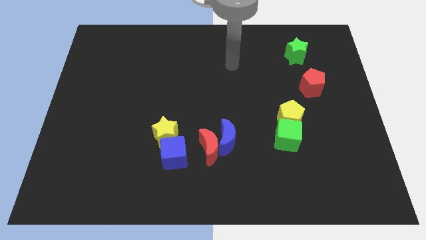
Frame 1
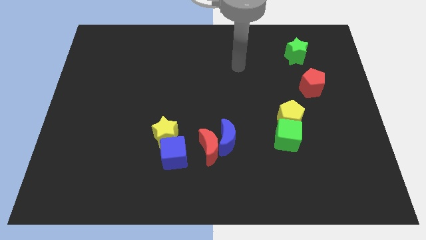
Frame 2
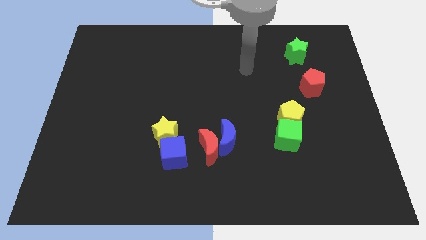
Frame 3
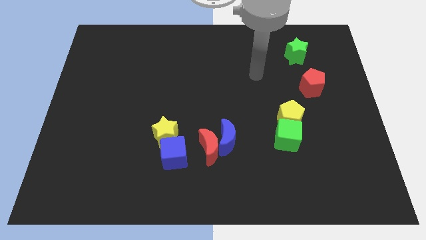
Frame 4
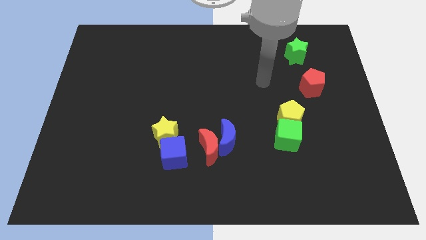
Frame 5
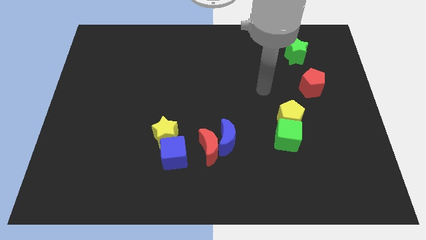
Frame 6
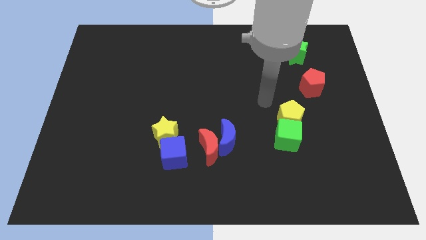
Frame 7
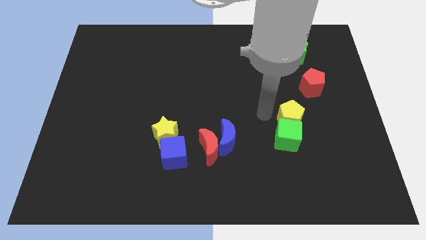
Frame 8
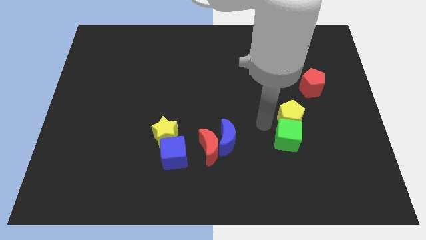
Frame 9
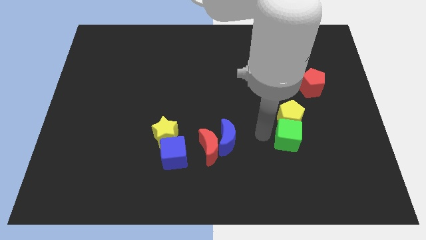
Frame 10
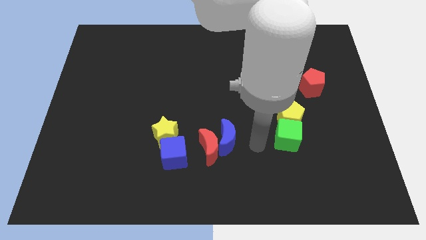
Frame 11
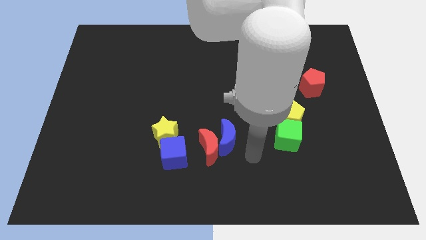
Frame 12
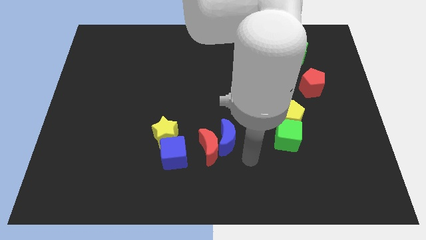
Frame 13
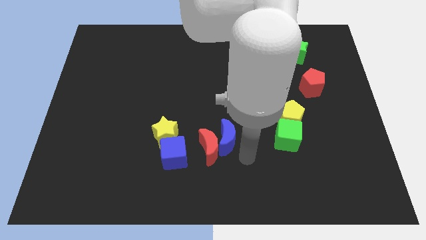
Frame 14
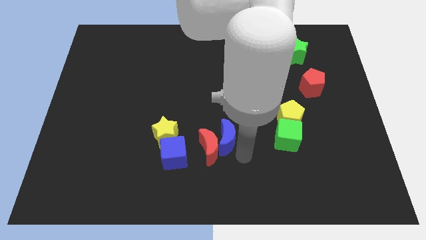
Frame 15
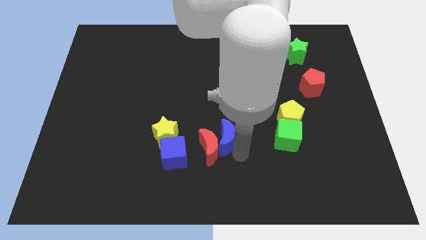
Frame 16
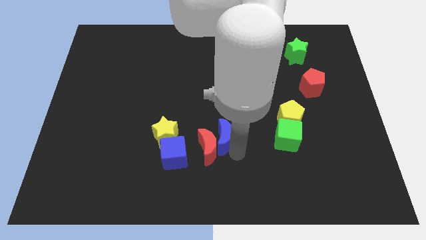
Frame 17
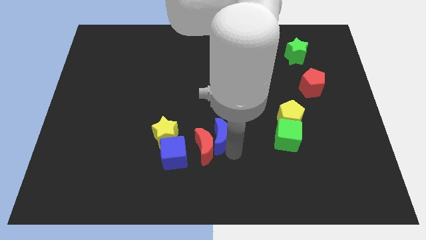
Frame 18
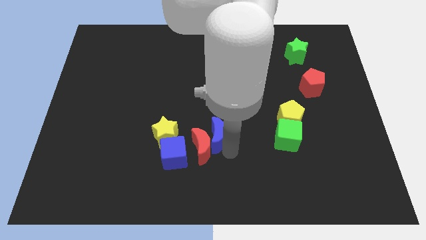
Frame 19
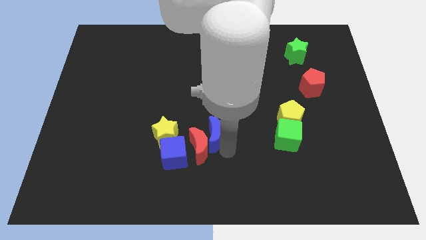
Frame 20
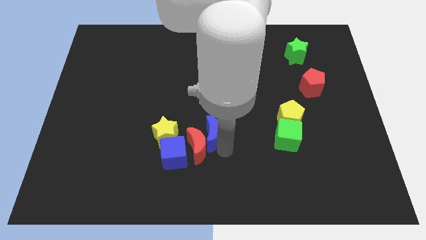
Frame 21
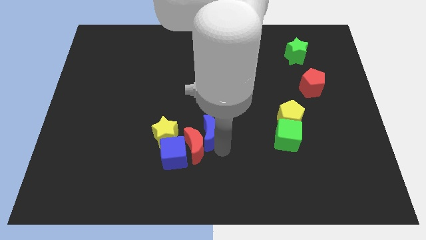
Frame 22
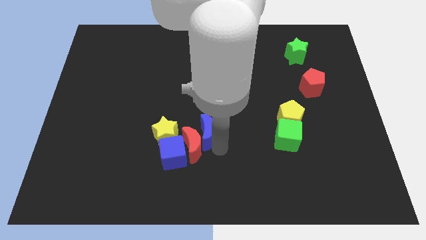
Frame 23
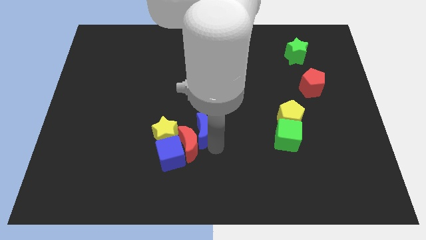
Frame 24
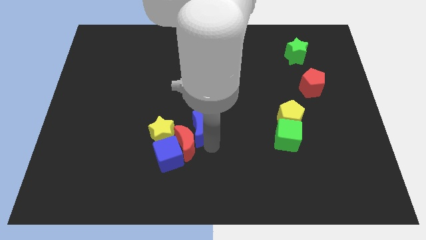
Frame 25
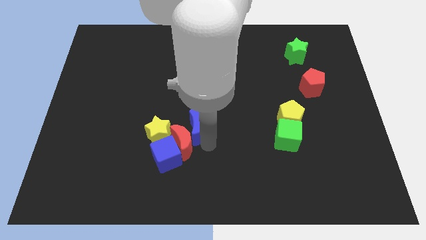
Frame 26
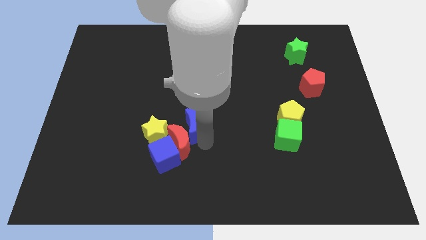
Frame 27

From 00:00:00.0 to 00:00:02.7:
move the blue moon a little up and left diagonally

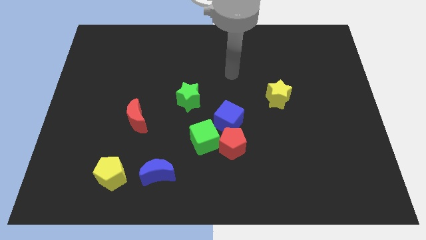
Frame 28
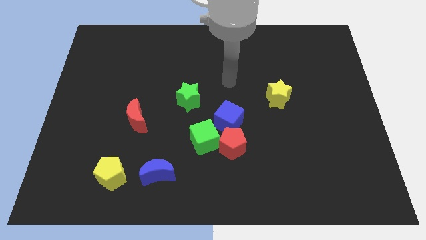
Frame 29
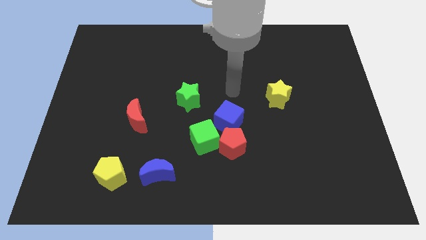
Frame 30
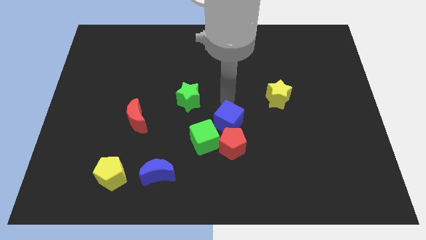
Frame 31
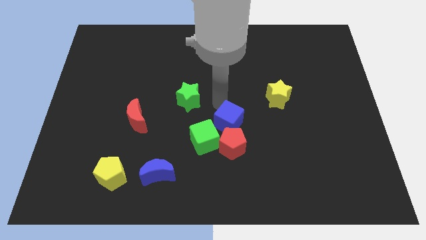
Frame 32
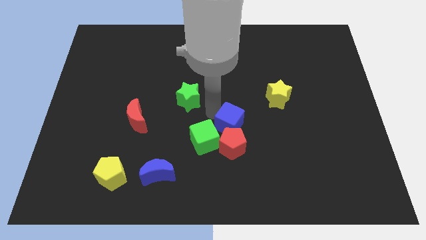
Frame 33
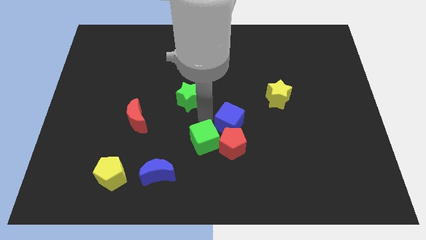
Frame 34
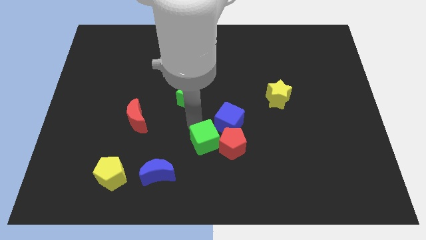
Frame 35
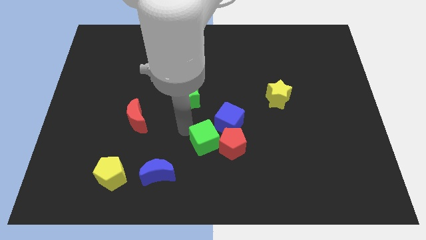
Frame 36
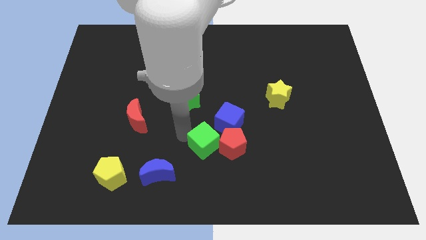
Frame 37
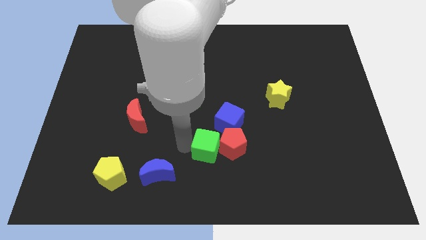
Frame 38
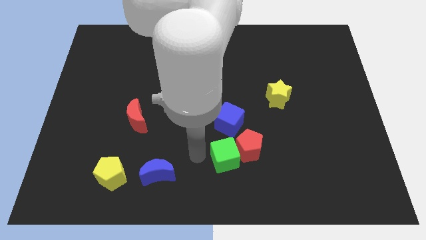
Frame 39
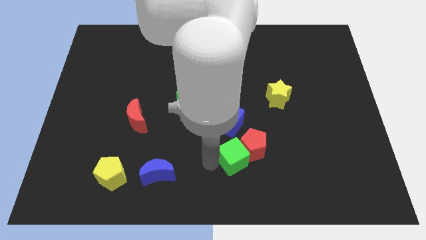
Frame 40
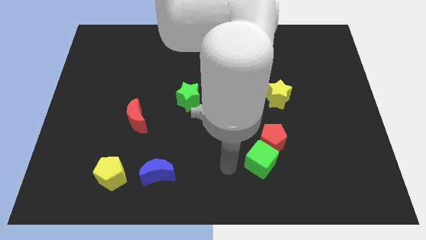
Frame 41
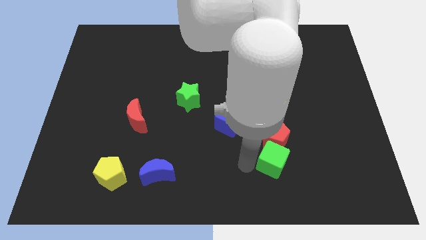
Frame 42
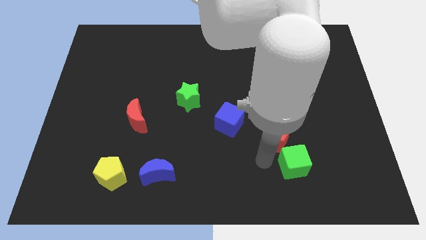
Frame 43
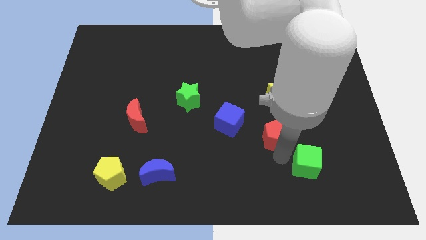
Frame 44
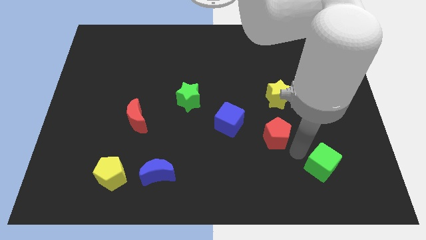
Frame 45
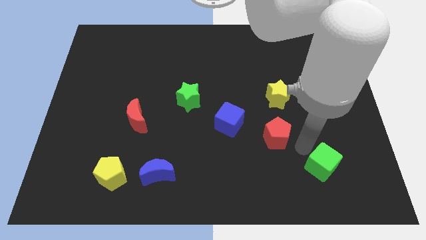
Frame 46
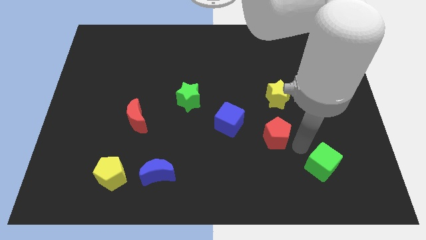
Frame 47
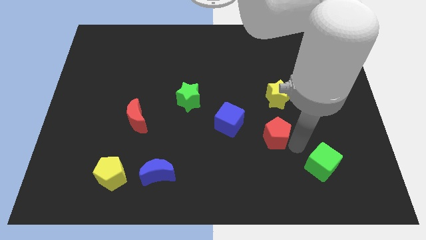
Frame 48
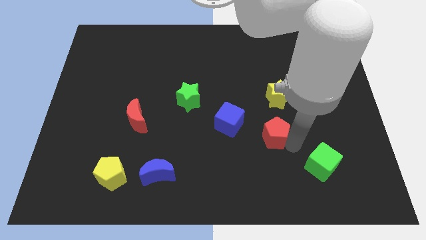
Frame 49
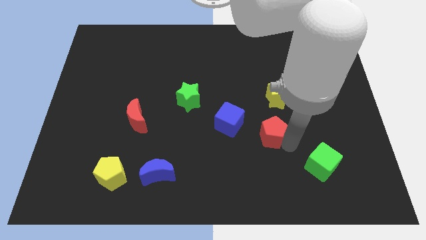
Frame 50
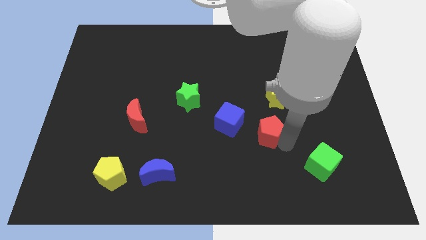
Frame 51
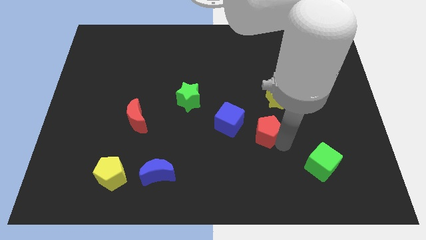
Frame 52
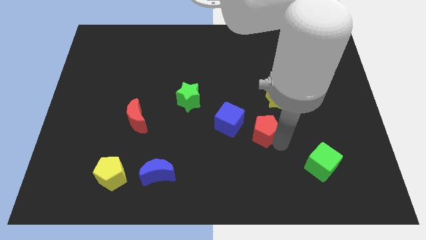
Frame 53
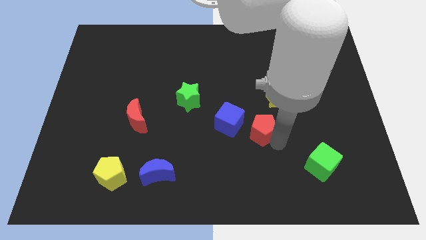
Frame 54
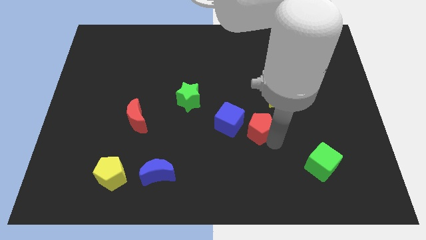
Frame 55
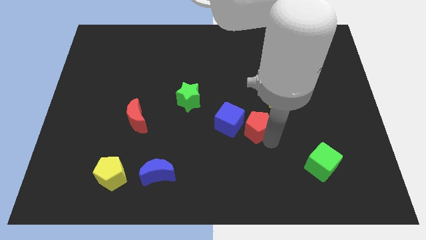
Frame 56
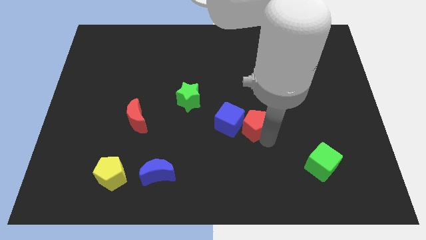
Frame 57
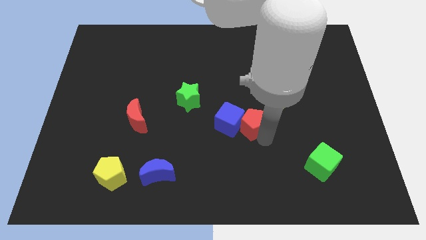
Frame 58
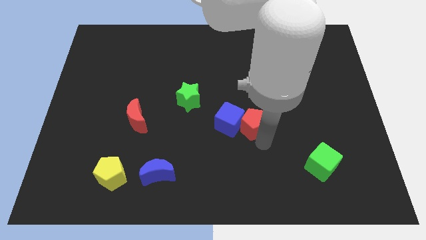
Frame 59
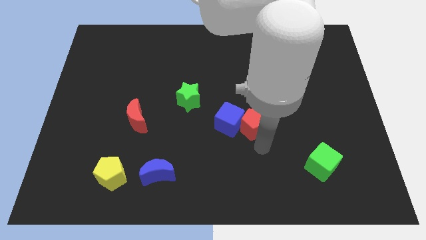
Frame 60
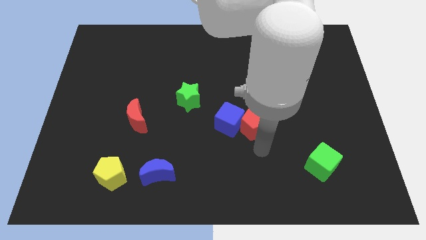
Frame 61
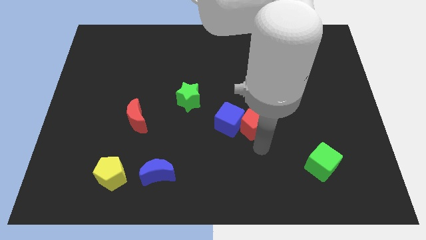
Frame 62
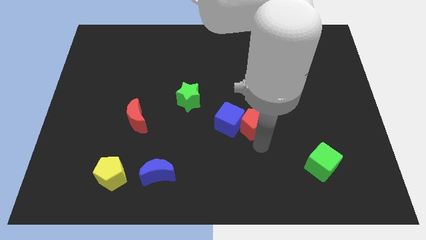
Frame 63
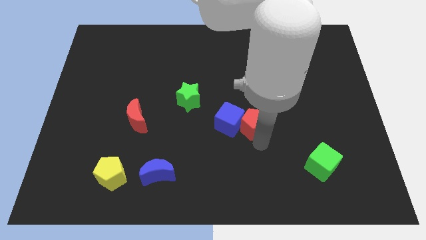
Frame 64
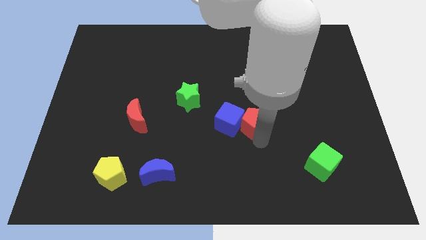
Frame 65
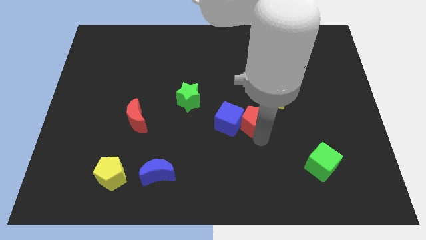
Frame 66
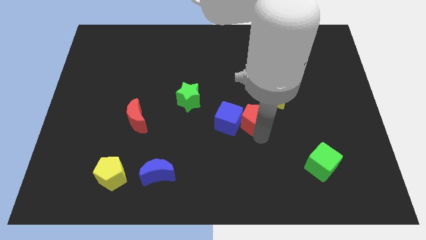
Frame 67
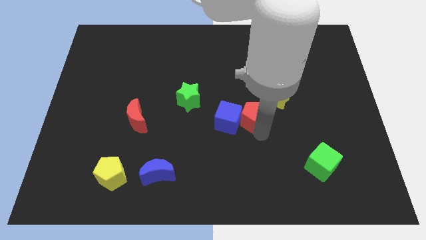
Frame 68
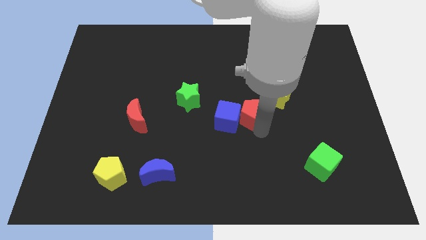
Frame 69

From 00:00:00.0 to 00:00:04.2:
slide the red pentagon up a bit

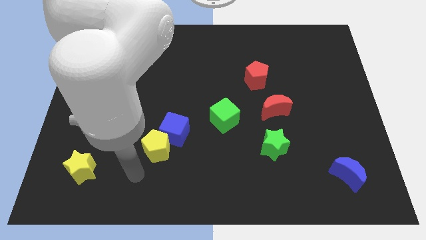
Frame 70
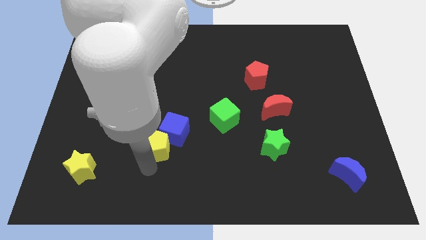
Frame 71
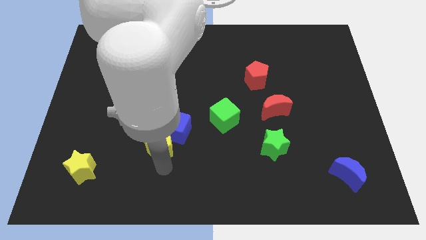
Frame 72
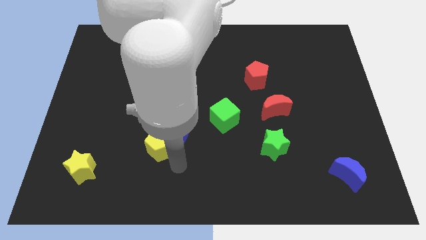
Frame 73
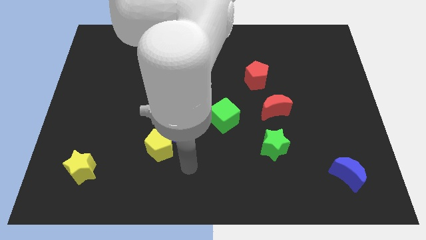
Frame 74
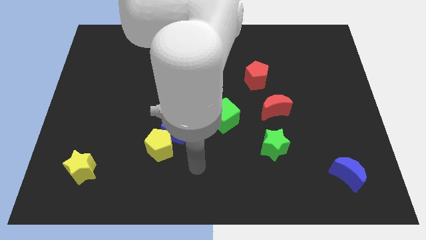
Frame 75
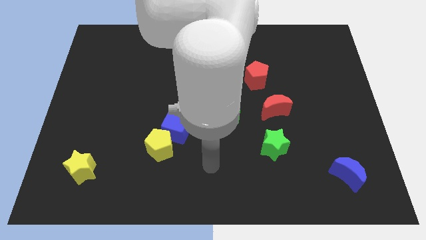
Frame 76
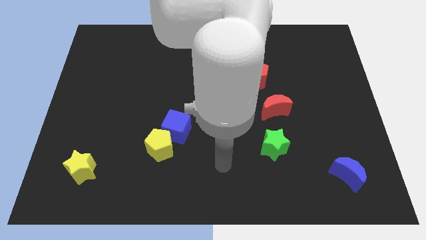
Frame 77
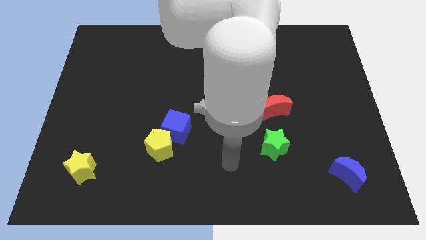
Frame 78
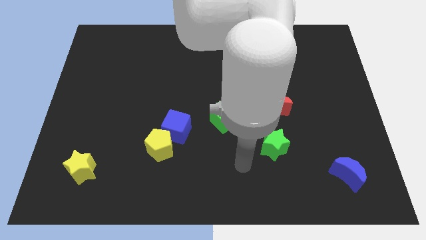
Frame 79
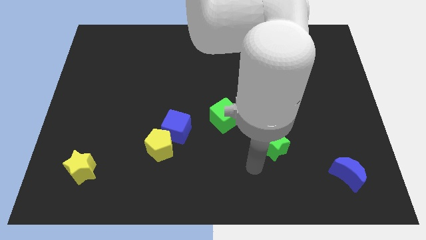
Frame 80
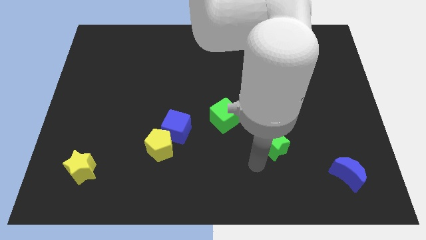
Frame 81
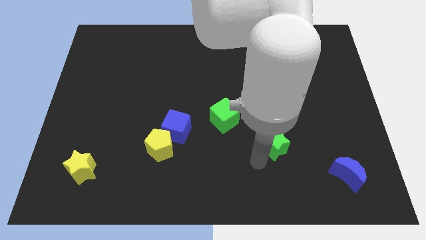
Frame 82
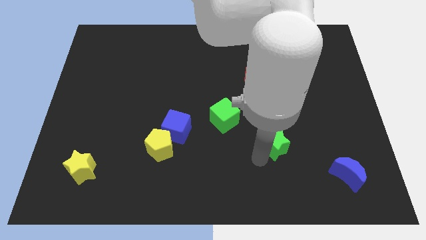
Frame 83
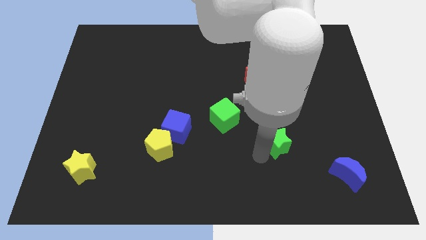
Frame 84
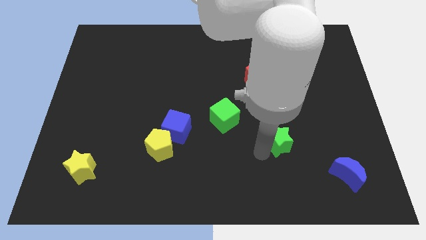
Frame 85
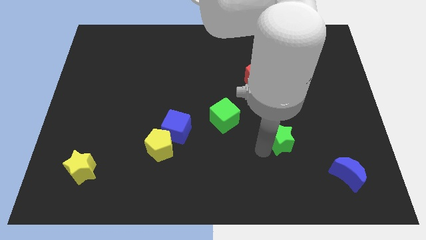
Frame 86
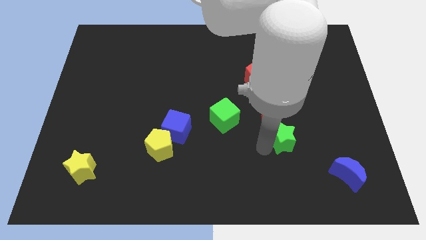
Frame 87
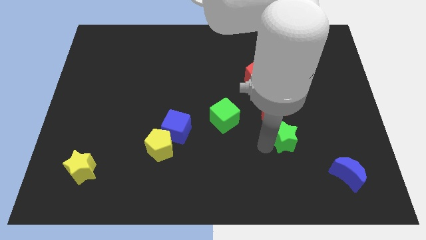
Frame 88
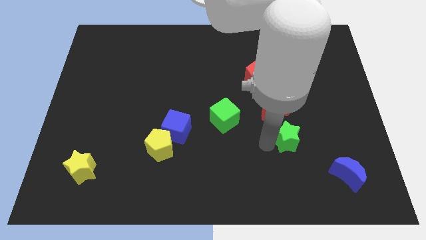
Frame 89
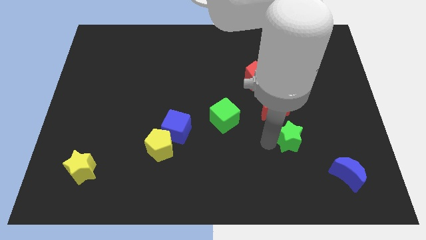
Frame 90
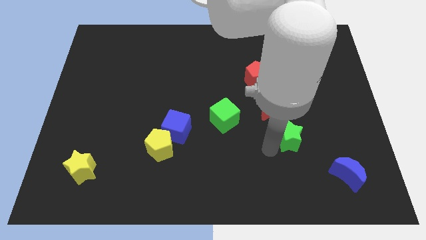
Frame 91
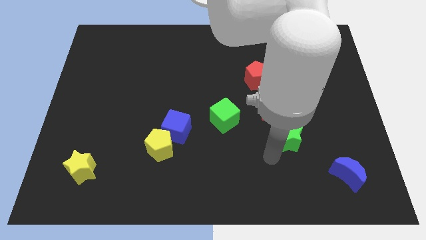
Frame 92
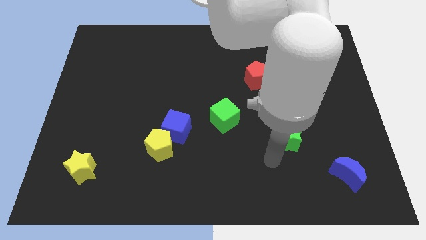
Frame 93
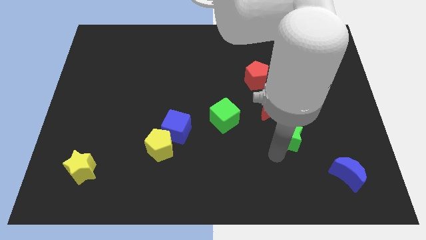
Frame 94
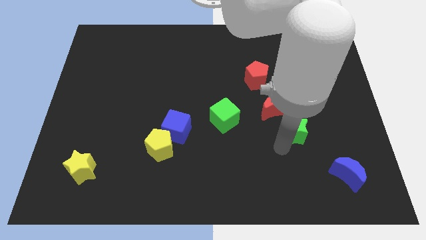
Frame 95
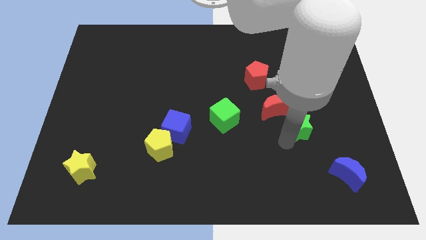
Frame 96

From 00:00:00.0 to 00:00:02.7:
slightly slide the green star up and right
